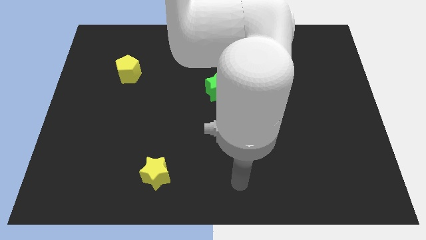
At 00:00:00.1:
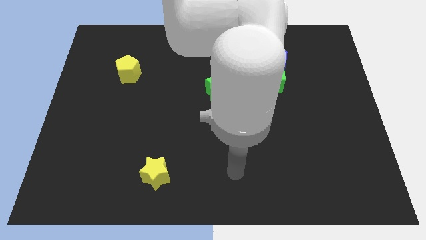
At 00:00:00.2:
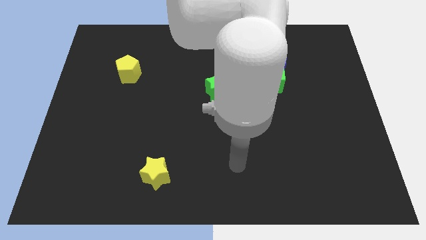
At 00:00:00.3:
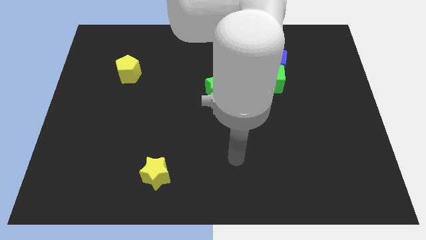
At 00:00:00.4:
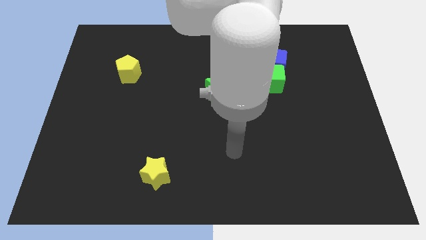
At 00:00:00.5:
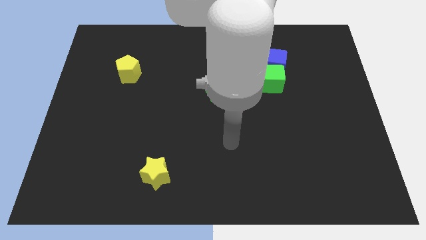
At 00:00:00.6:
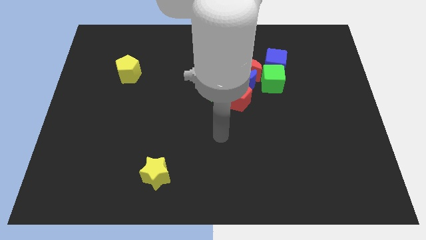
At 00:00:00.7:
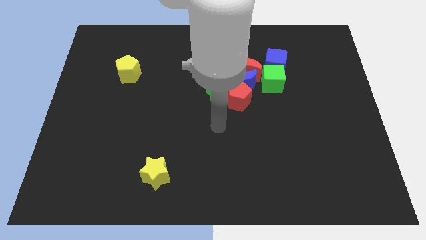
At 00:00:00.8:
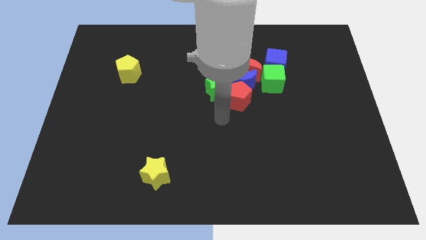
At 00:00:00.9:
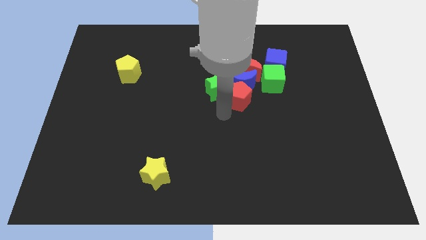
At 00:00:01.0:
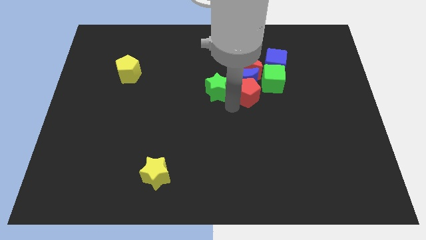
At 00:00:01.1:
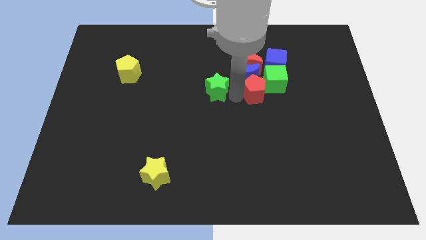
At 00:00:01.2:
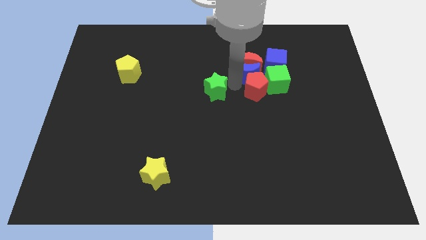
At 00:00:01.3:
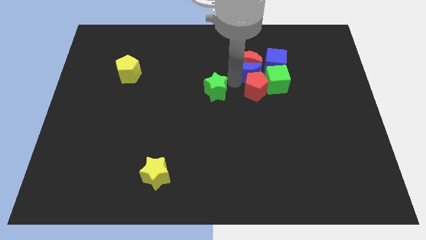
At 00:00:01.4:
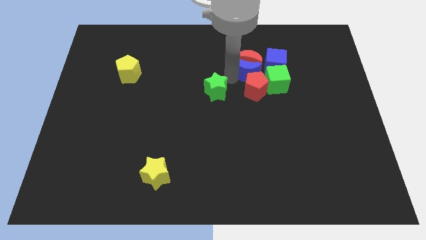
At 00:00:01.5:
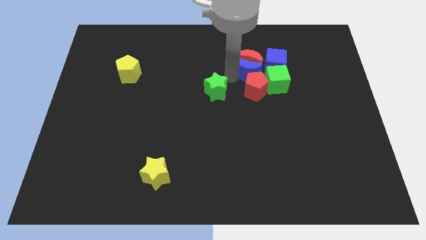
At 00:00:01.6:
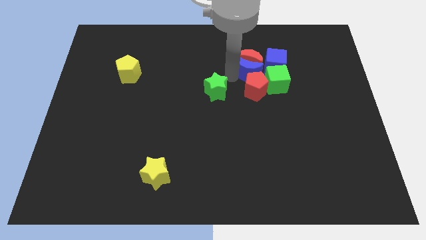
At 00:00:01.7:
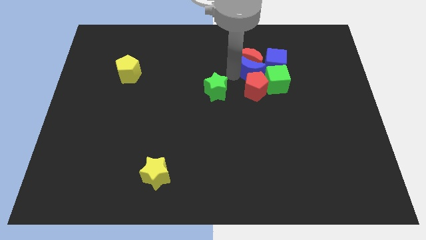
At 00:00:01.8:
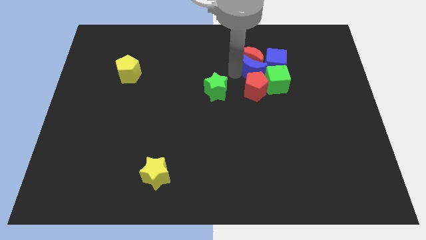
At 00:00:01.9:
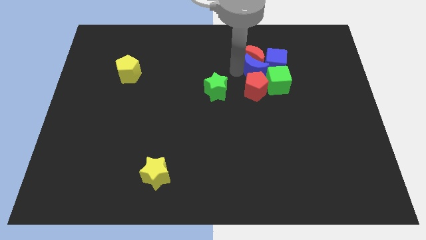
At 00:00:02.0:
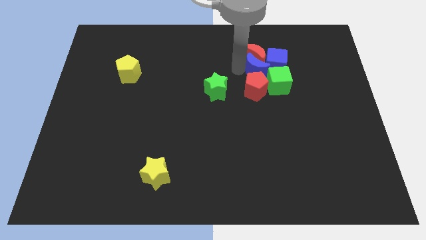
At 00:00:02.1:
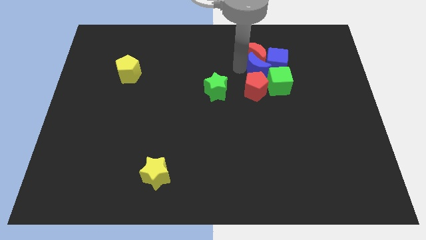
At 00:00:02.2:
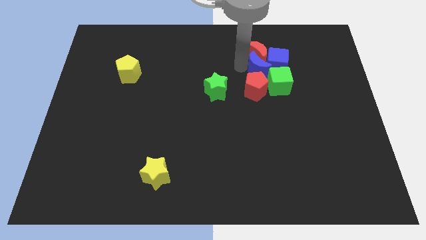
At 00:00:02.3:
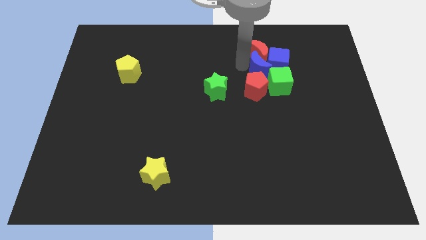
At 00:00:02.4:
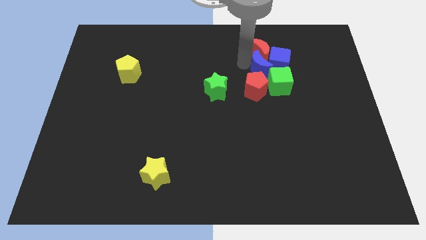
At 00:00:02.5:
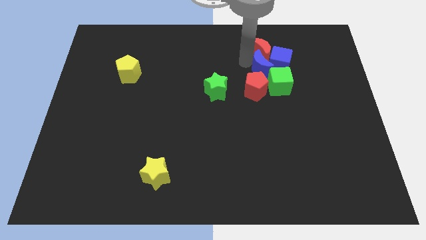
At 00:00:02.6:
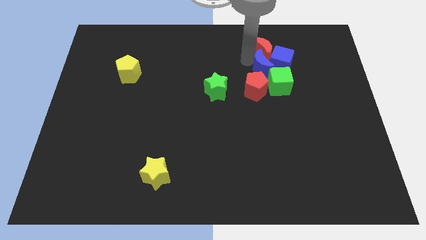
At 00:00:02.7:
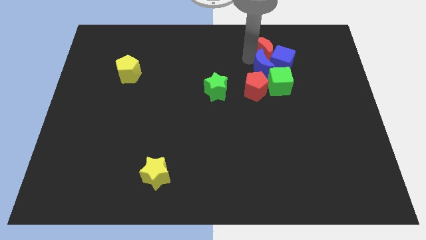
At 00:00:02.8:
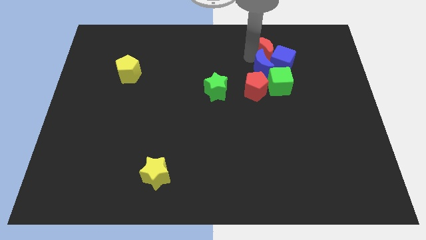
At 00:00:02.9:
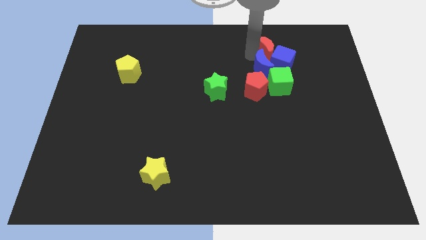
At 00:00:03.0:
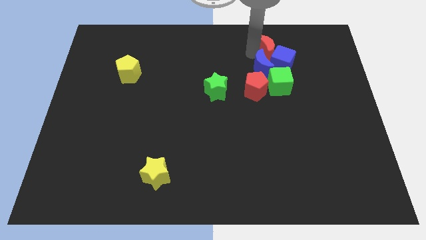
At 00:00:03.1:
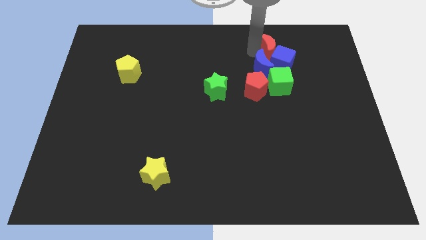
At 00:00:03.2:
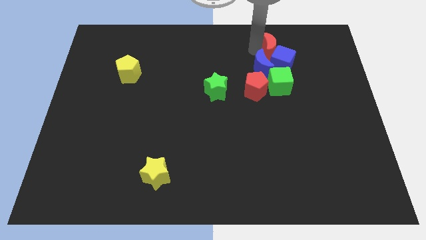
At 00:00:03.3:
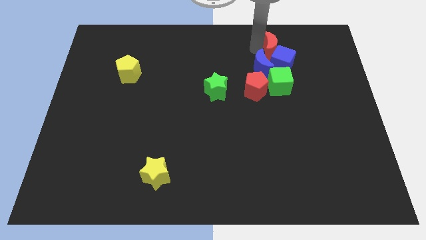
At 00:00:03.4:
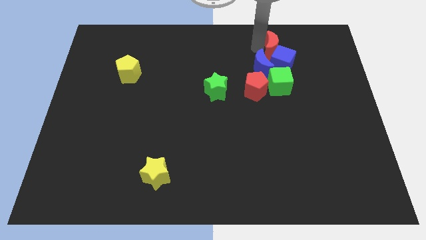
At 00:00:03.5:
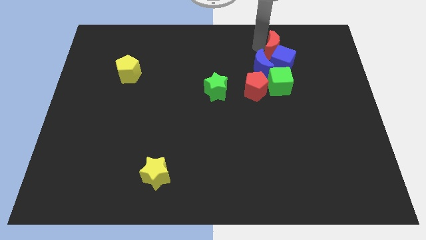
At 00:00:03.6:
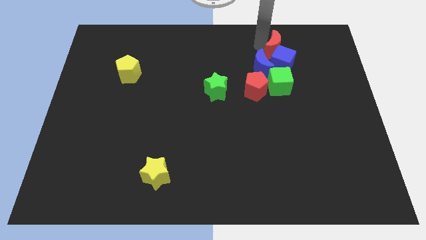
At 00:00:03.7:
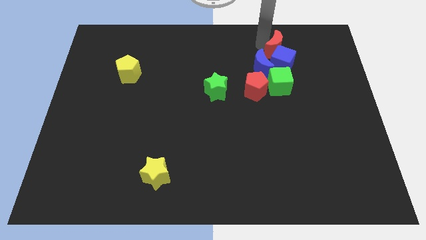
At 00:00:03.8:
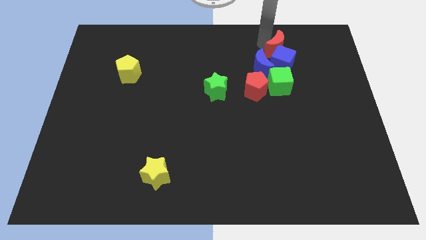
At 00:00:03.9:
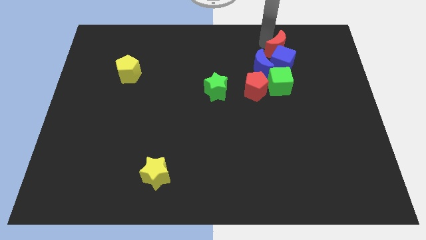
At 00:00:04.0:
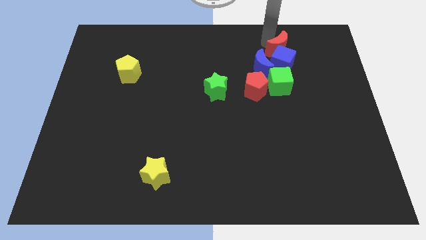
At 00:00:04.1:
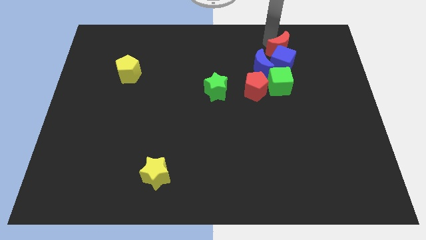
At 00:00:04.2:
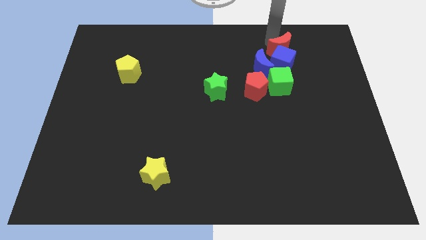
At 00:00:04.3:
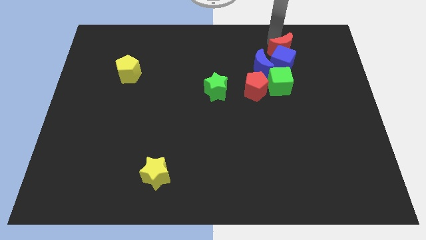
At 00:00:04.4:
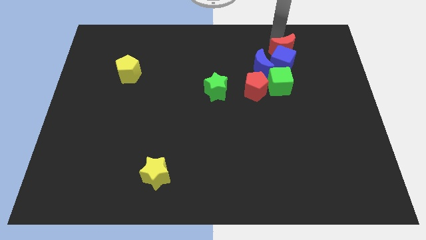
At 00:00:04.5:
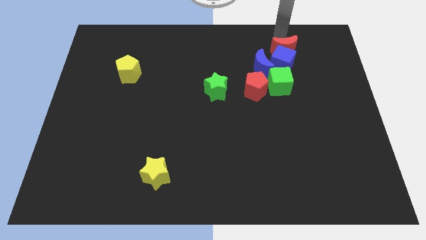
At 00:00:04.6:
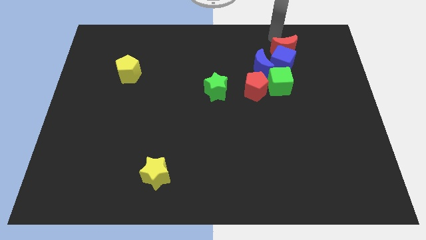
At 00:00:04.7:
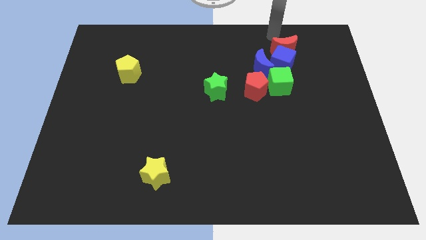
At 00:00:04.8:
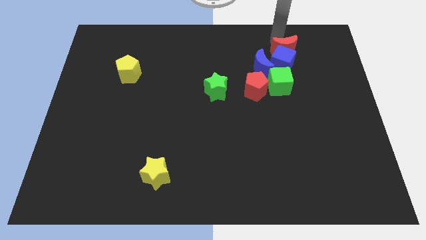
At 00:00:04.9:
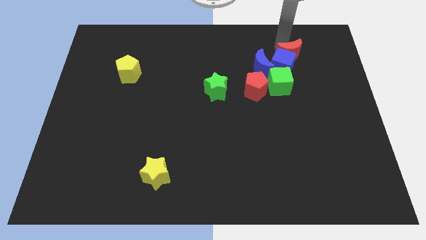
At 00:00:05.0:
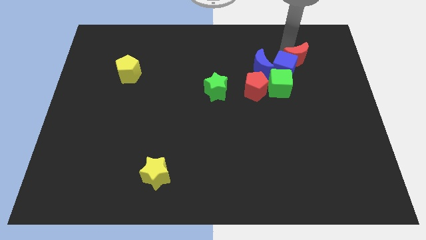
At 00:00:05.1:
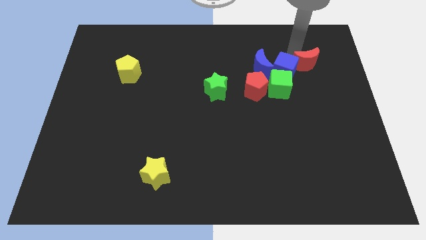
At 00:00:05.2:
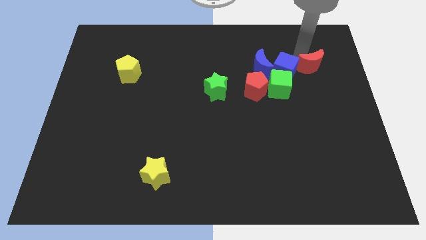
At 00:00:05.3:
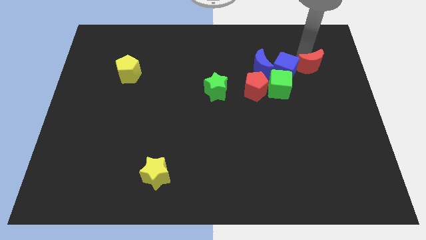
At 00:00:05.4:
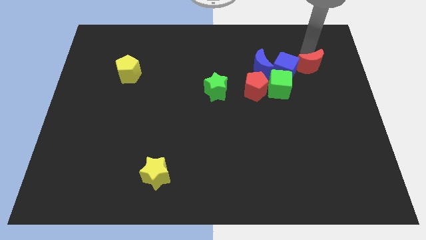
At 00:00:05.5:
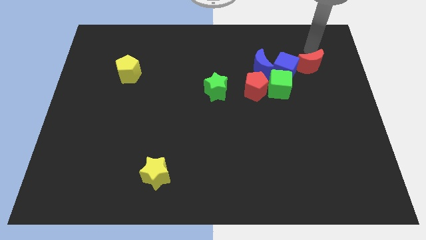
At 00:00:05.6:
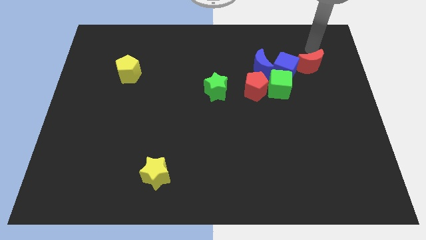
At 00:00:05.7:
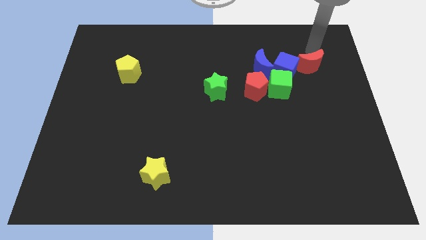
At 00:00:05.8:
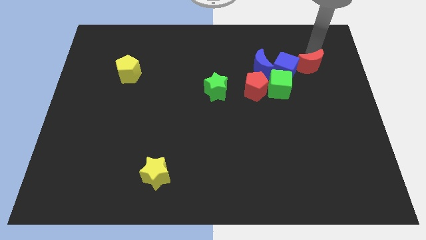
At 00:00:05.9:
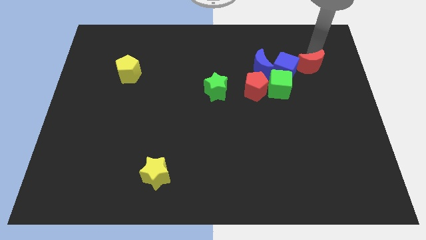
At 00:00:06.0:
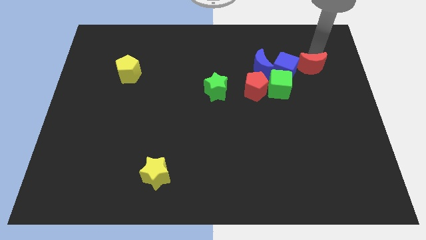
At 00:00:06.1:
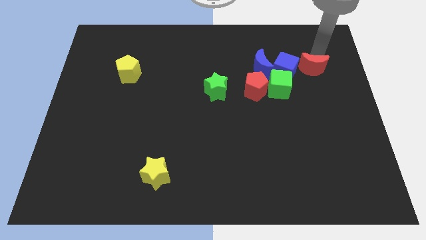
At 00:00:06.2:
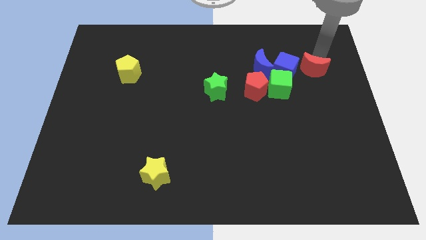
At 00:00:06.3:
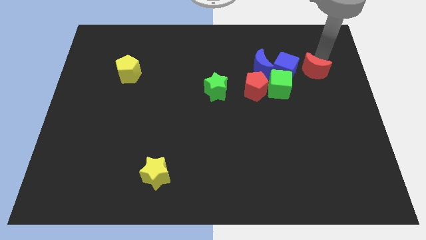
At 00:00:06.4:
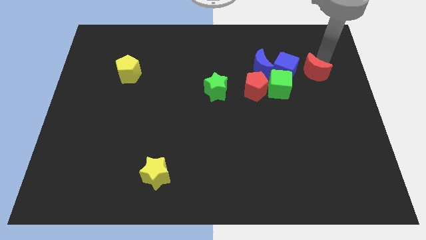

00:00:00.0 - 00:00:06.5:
push the red moon to the bottom right side of the blue cube

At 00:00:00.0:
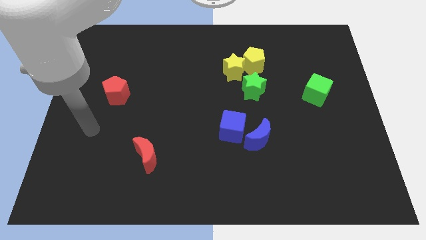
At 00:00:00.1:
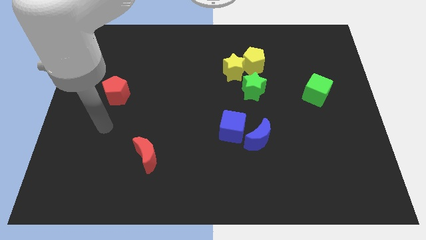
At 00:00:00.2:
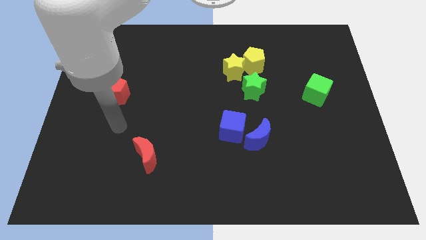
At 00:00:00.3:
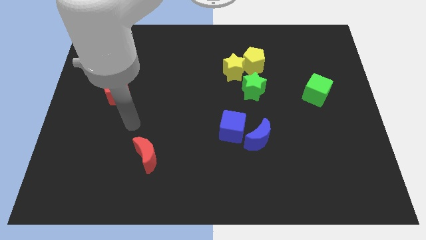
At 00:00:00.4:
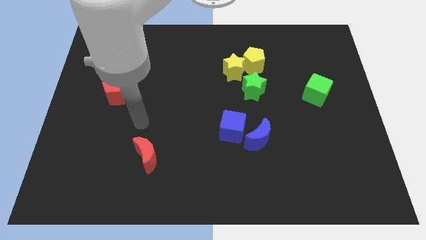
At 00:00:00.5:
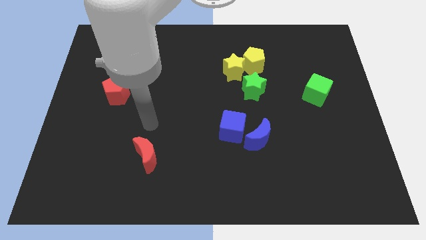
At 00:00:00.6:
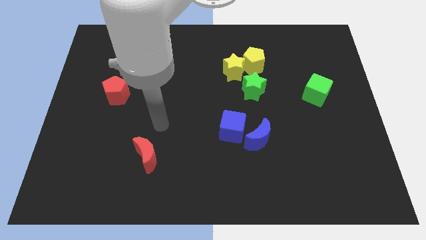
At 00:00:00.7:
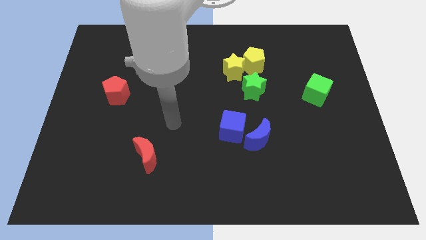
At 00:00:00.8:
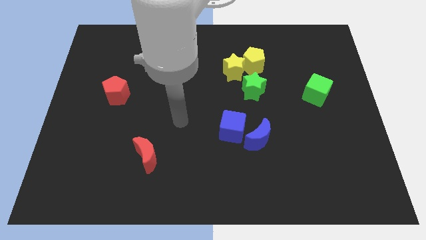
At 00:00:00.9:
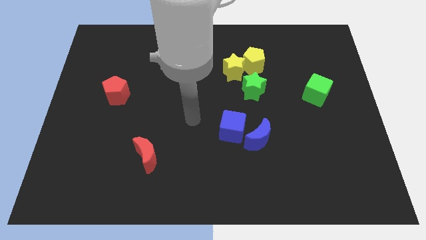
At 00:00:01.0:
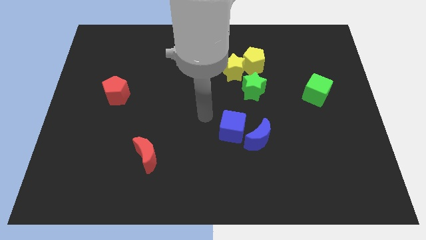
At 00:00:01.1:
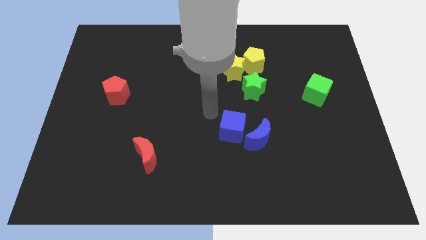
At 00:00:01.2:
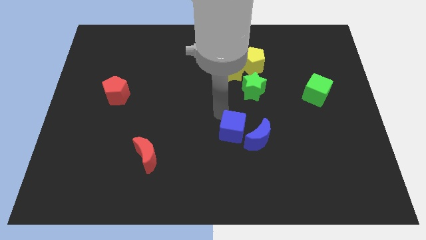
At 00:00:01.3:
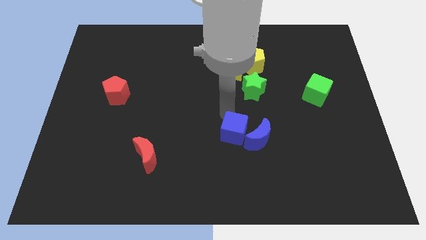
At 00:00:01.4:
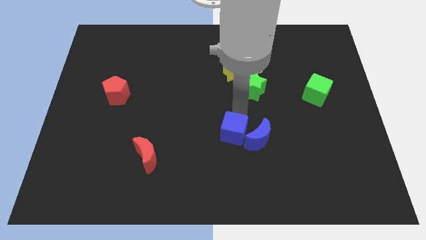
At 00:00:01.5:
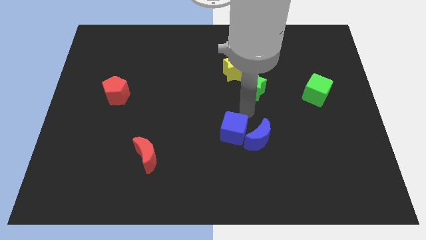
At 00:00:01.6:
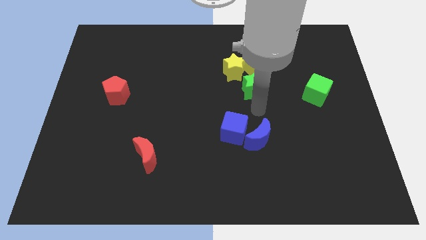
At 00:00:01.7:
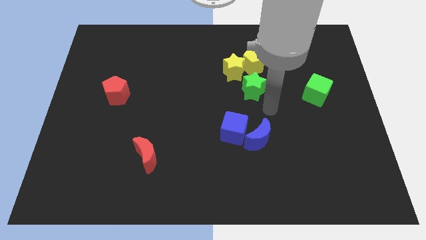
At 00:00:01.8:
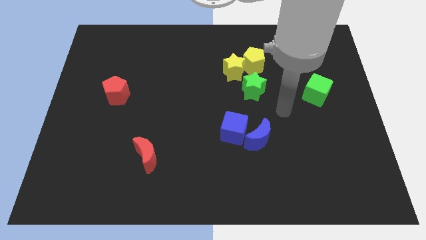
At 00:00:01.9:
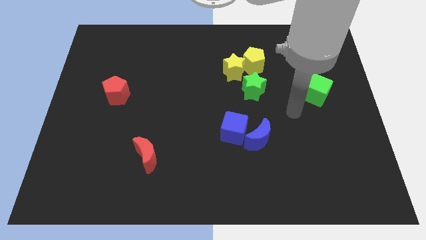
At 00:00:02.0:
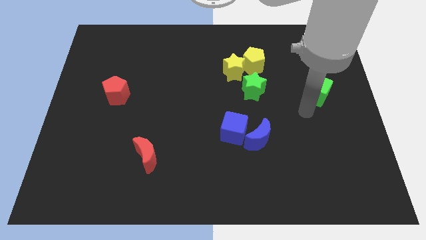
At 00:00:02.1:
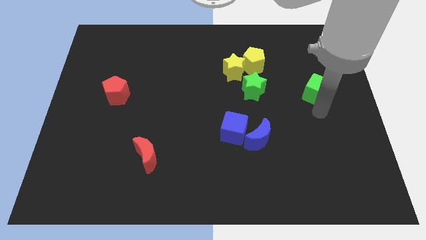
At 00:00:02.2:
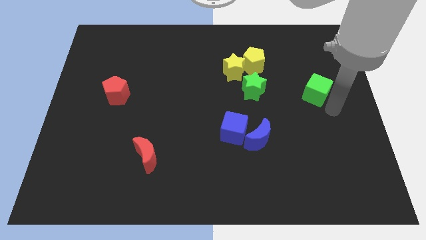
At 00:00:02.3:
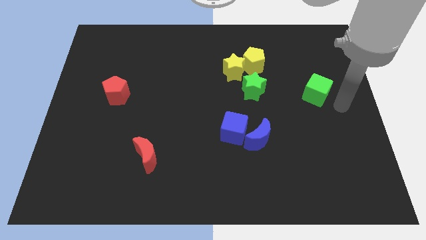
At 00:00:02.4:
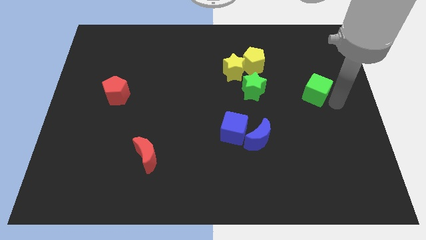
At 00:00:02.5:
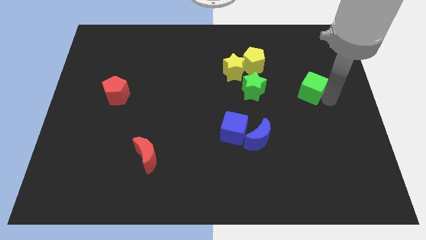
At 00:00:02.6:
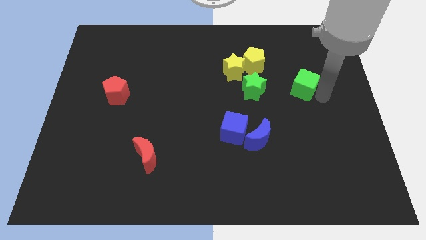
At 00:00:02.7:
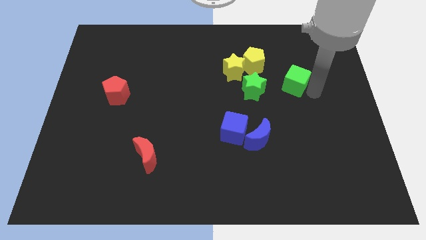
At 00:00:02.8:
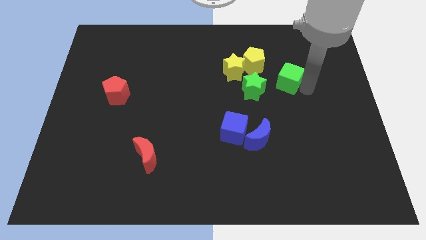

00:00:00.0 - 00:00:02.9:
move the green cube diagonally up and to the right of the green star
